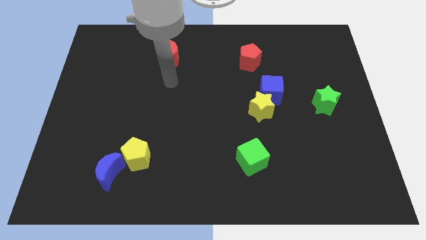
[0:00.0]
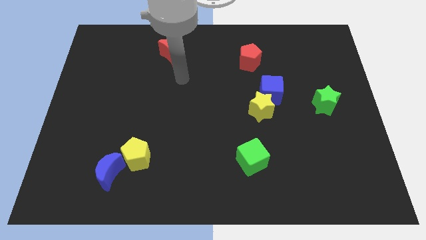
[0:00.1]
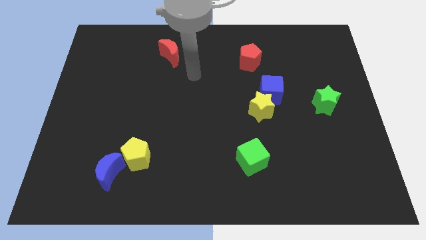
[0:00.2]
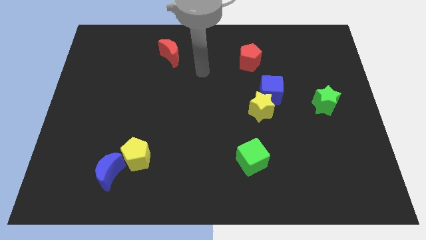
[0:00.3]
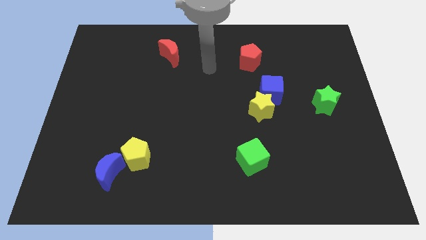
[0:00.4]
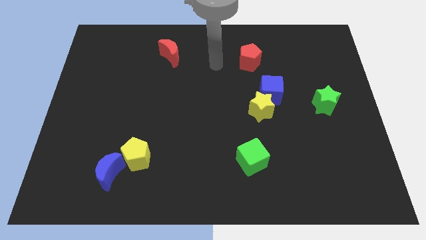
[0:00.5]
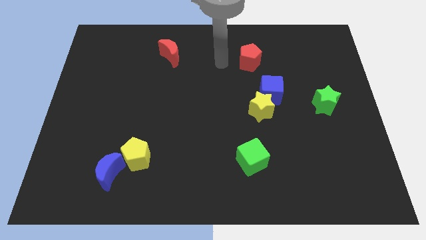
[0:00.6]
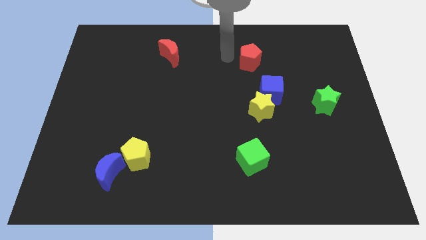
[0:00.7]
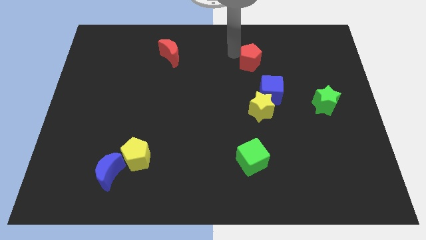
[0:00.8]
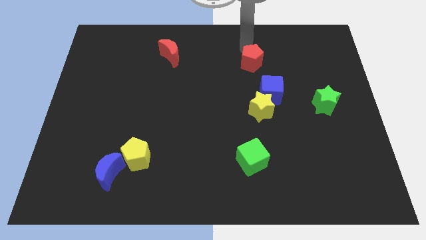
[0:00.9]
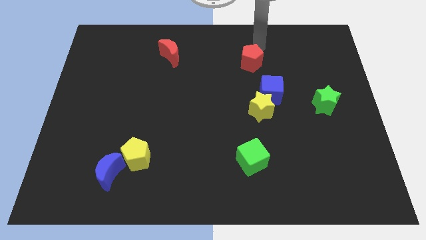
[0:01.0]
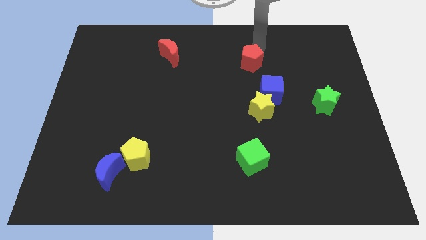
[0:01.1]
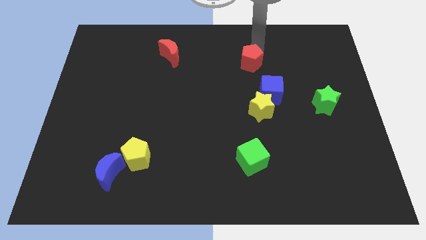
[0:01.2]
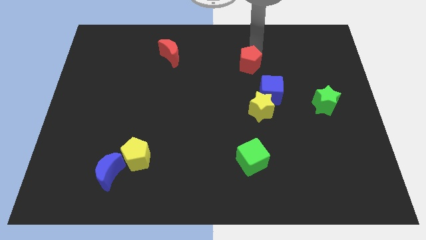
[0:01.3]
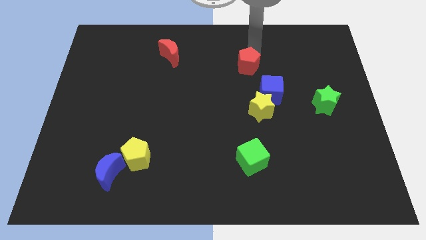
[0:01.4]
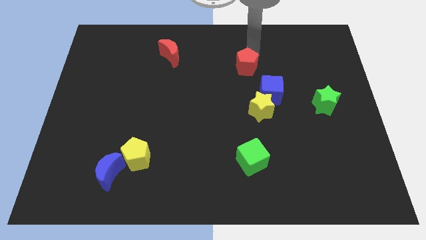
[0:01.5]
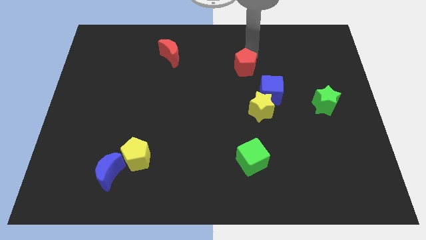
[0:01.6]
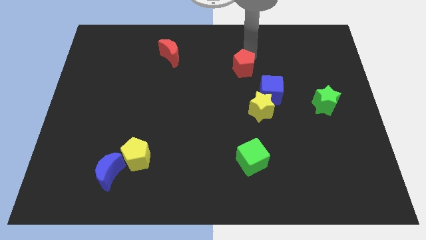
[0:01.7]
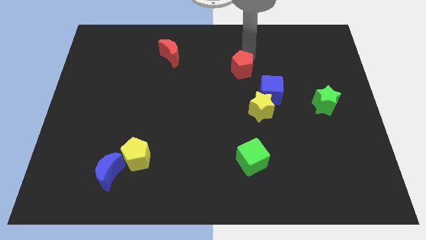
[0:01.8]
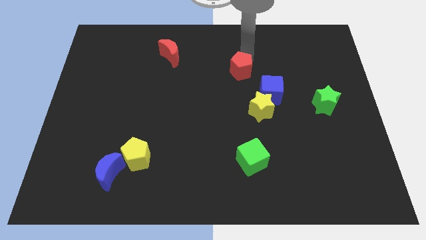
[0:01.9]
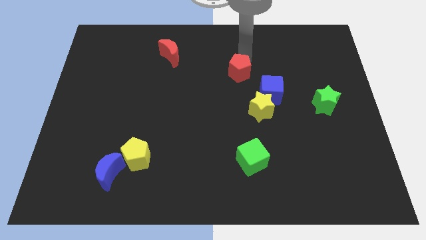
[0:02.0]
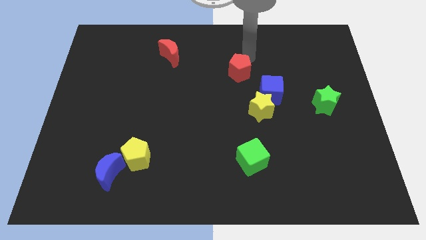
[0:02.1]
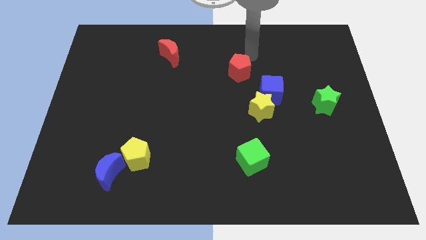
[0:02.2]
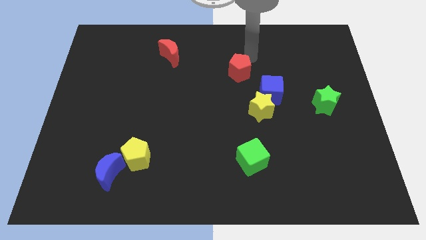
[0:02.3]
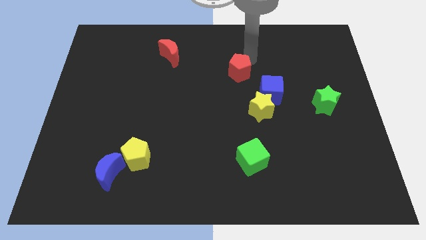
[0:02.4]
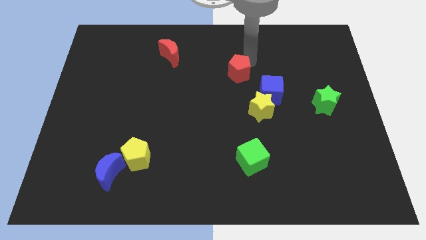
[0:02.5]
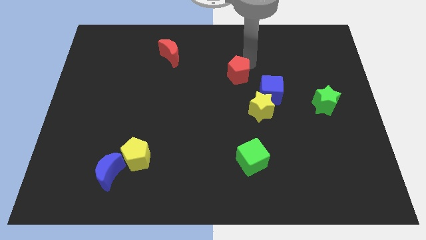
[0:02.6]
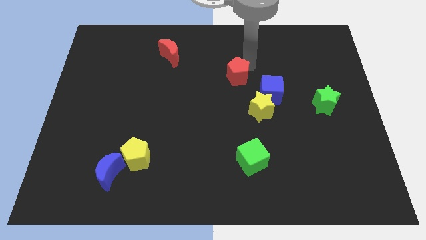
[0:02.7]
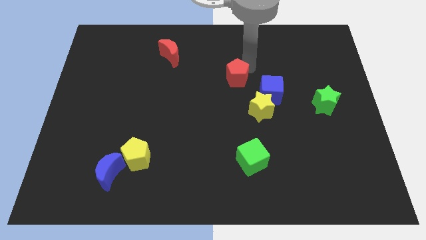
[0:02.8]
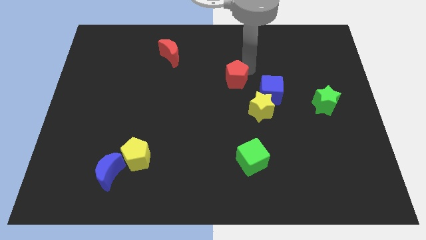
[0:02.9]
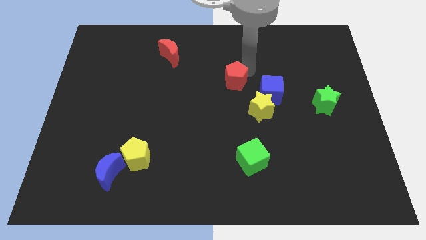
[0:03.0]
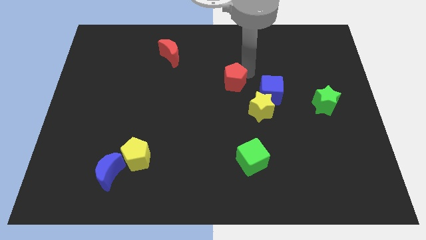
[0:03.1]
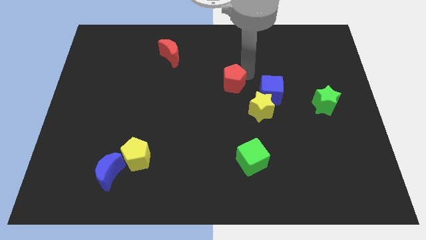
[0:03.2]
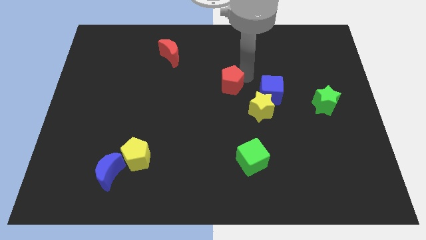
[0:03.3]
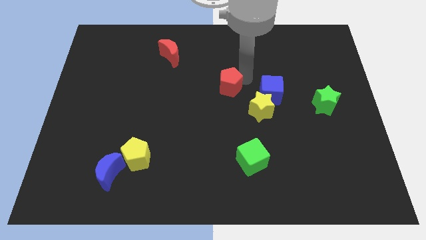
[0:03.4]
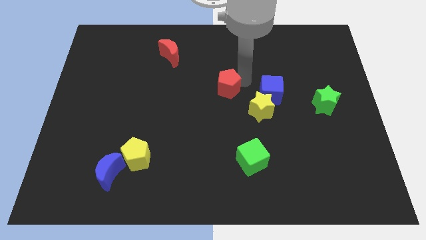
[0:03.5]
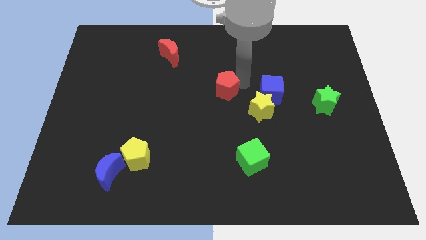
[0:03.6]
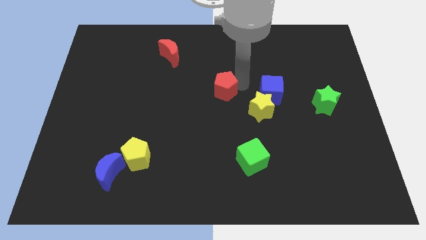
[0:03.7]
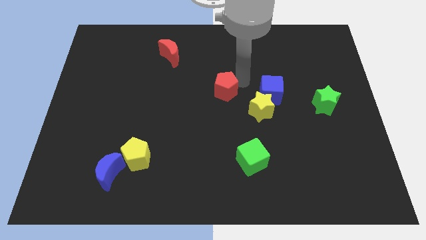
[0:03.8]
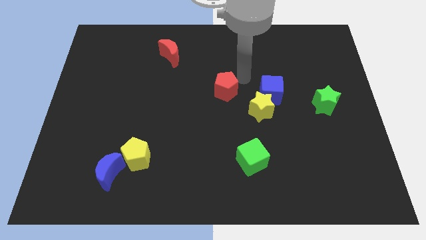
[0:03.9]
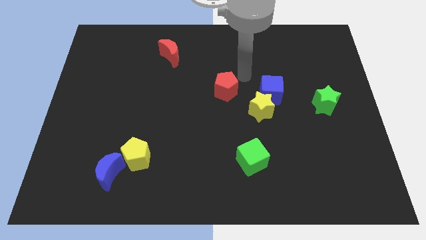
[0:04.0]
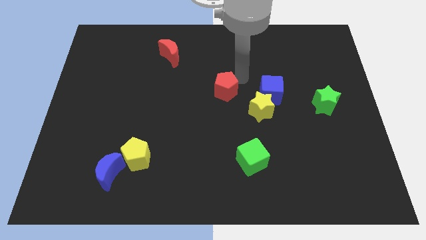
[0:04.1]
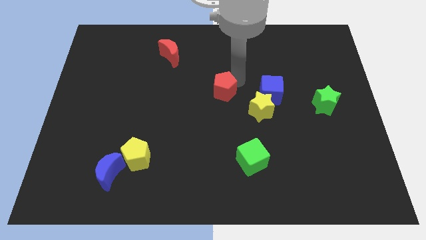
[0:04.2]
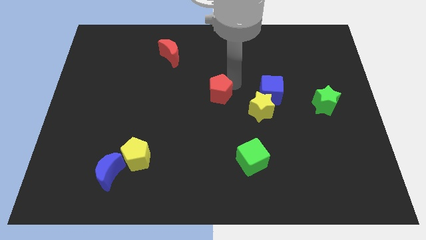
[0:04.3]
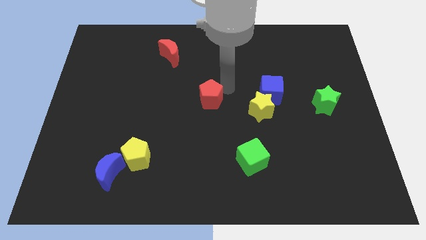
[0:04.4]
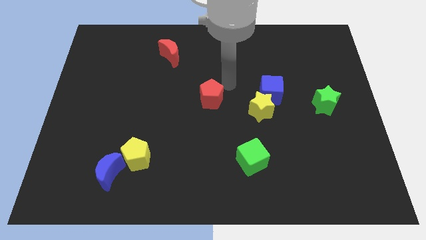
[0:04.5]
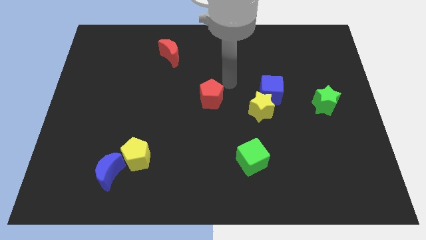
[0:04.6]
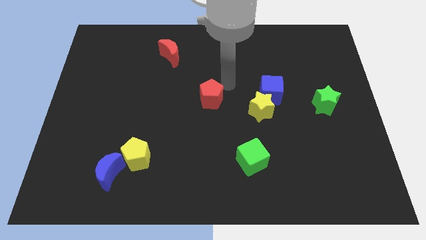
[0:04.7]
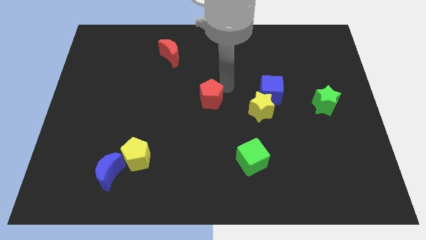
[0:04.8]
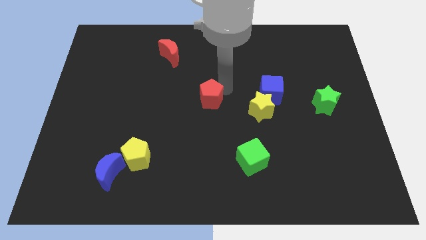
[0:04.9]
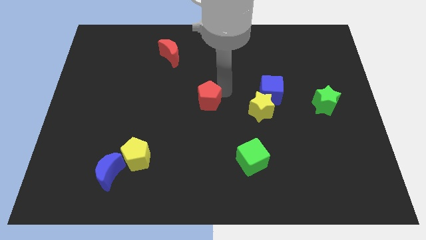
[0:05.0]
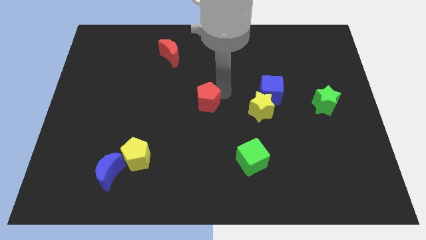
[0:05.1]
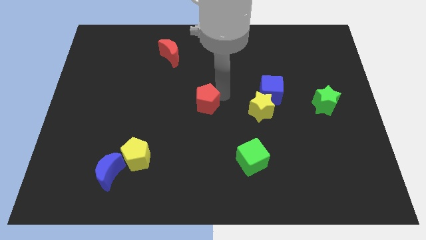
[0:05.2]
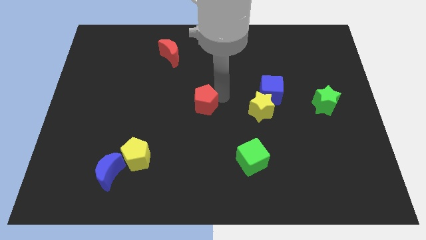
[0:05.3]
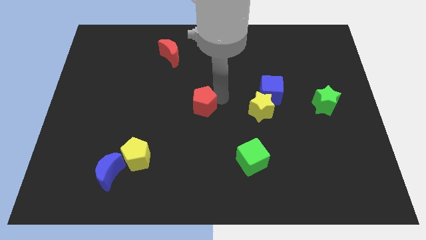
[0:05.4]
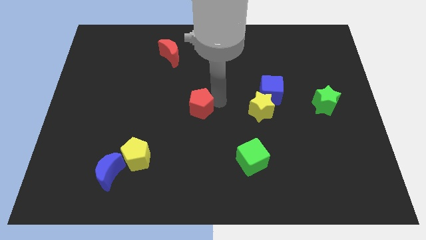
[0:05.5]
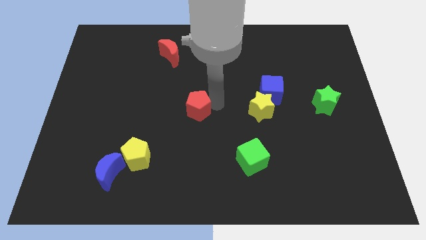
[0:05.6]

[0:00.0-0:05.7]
push the red pentagon down and left diagonally

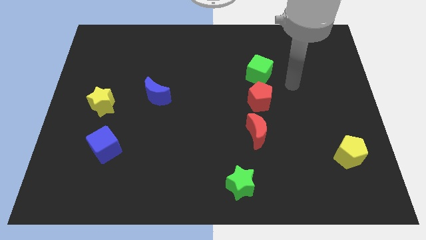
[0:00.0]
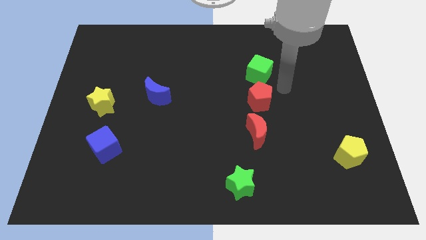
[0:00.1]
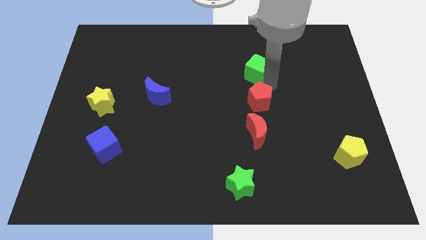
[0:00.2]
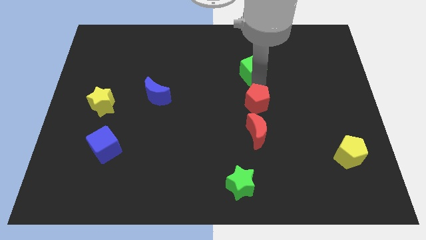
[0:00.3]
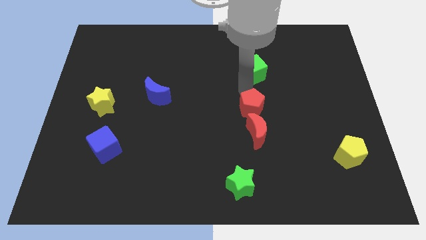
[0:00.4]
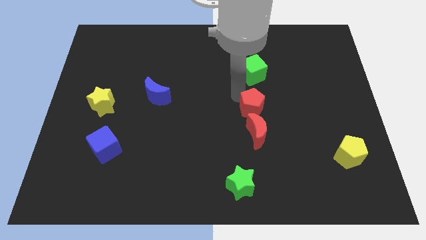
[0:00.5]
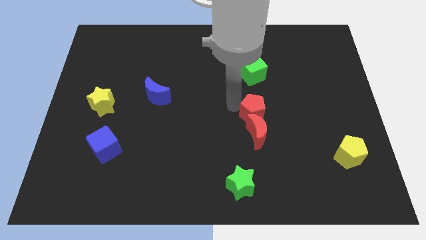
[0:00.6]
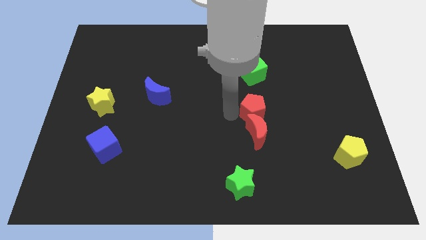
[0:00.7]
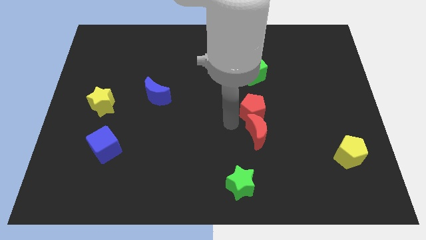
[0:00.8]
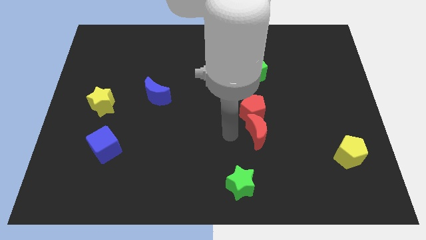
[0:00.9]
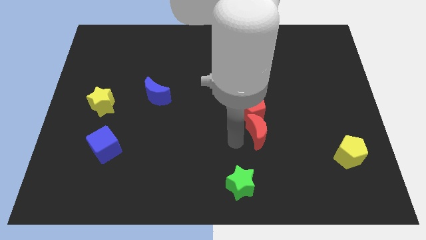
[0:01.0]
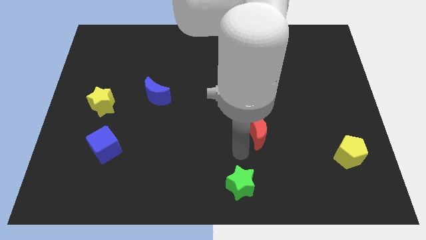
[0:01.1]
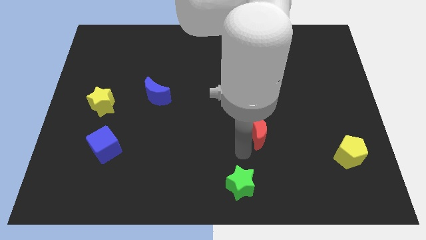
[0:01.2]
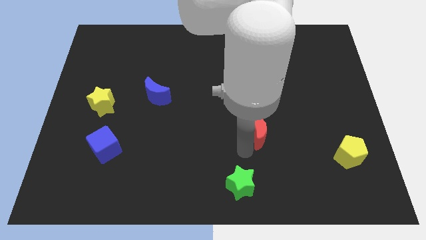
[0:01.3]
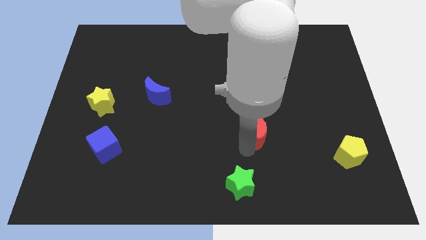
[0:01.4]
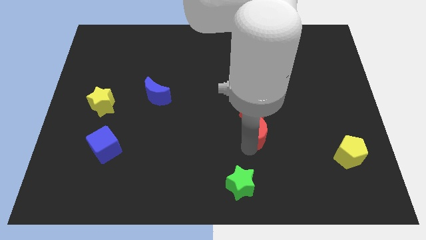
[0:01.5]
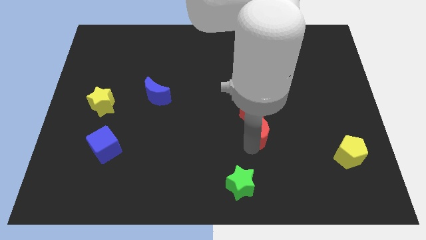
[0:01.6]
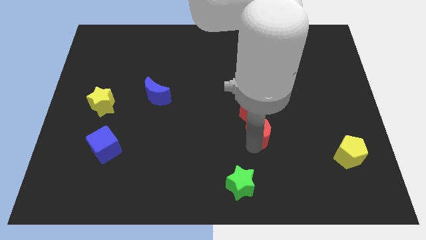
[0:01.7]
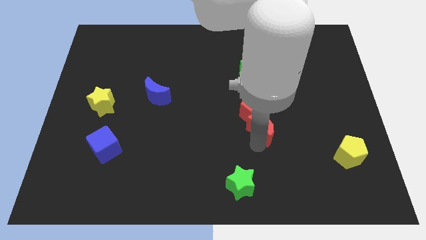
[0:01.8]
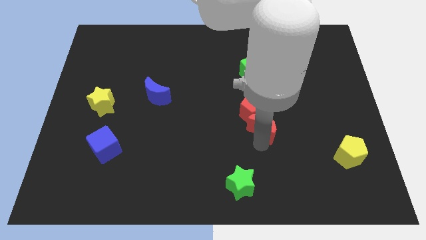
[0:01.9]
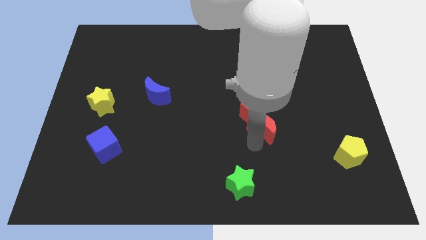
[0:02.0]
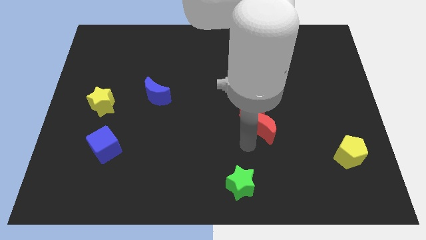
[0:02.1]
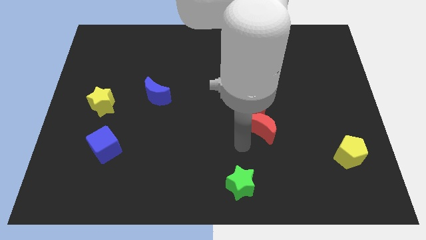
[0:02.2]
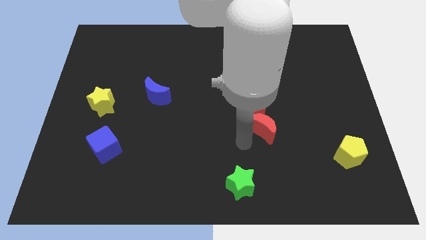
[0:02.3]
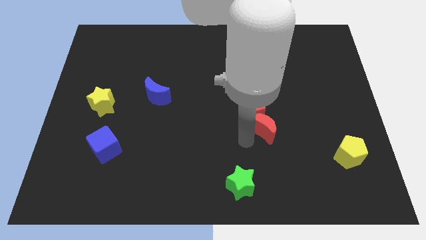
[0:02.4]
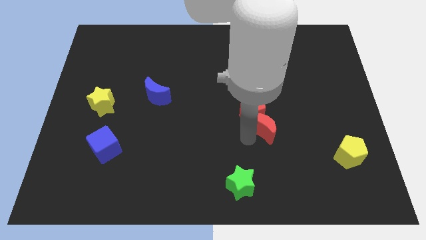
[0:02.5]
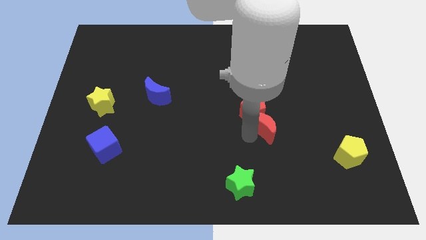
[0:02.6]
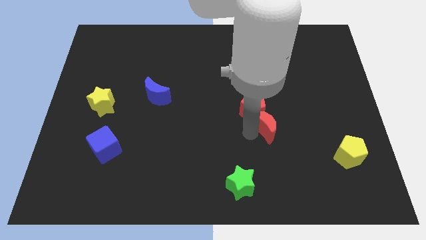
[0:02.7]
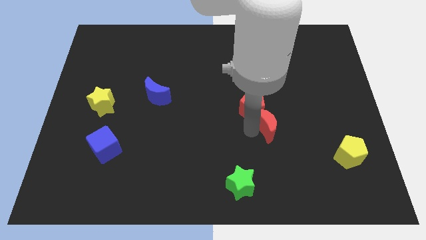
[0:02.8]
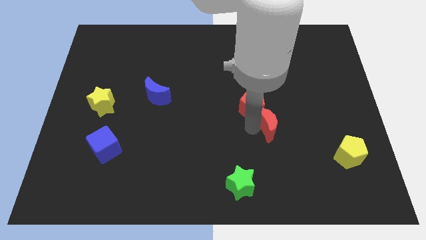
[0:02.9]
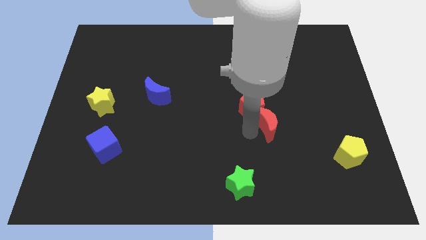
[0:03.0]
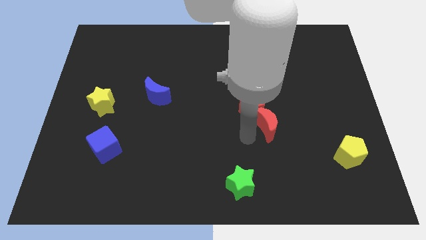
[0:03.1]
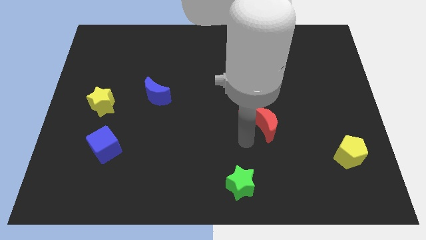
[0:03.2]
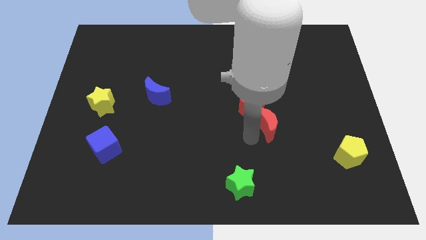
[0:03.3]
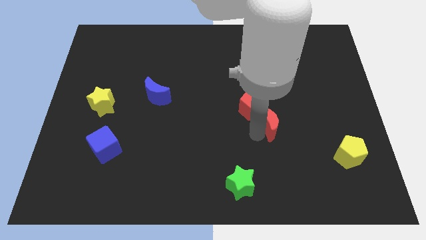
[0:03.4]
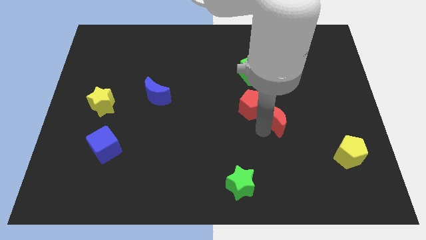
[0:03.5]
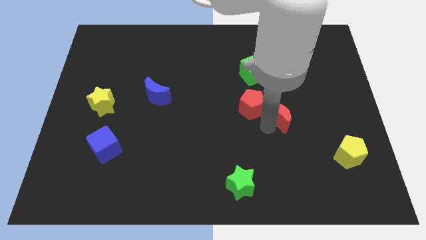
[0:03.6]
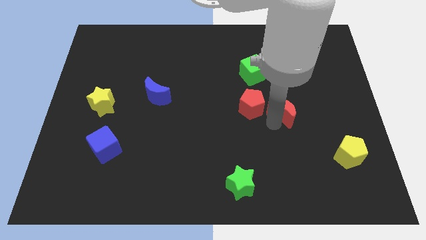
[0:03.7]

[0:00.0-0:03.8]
push the red moon a little diagonally up and right
